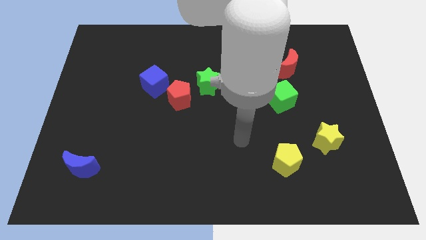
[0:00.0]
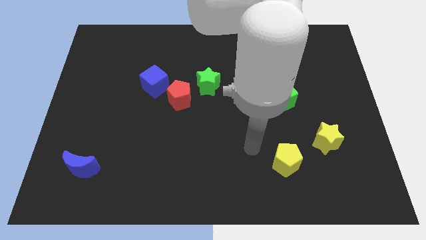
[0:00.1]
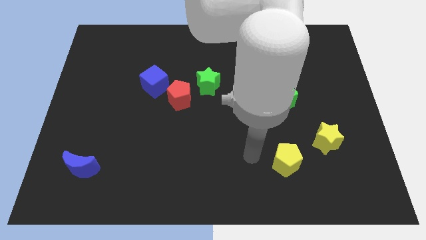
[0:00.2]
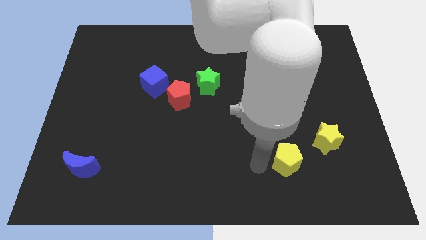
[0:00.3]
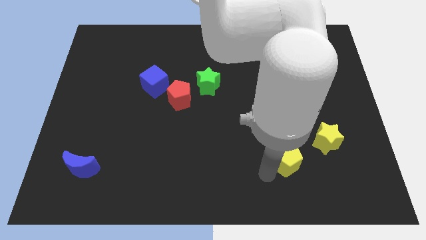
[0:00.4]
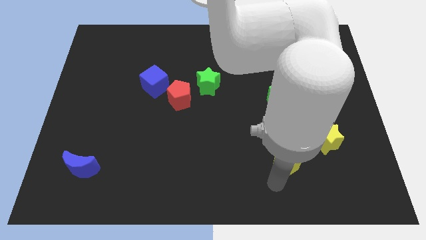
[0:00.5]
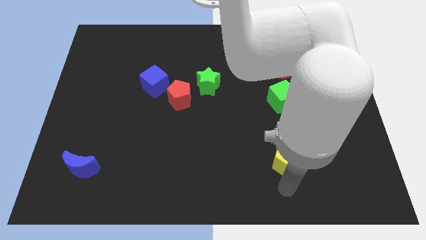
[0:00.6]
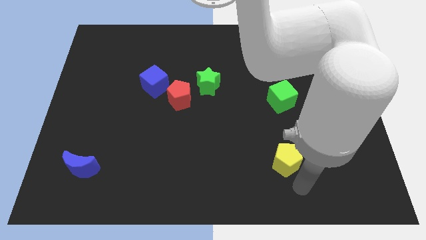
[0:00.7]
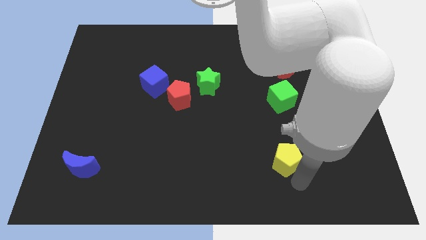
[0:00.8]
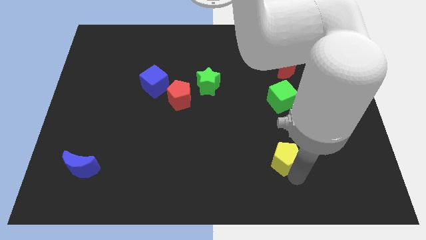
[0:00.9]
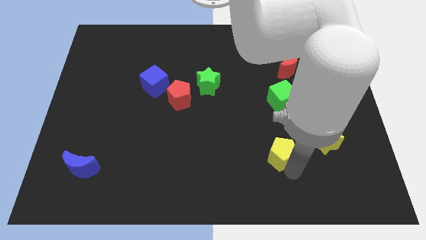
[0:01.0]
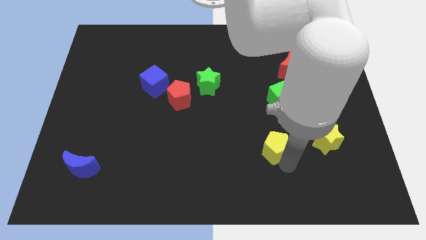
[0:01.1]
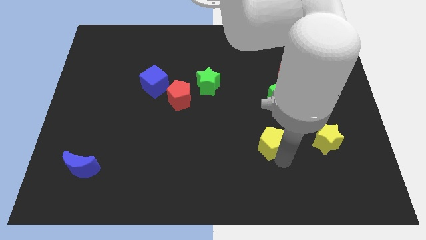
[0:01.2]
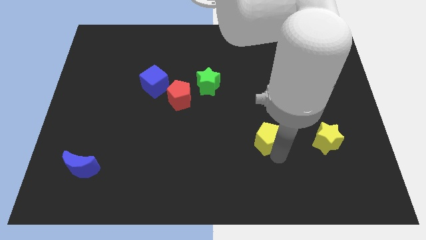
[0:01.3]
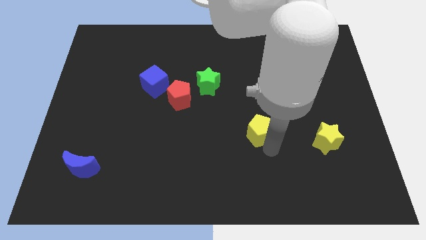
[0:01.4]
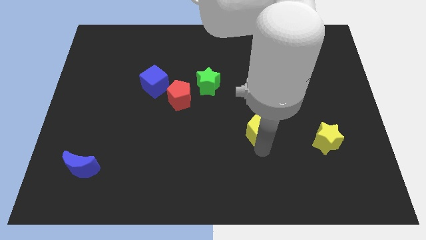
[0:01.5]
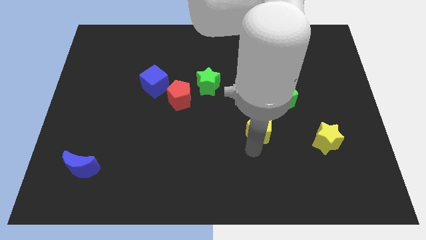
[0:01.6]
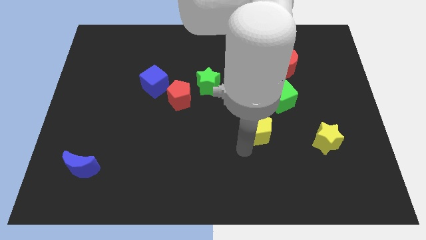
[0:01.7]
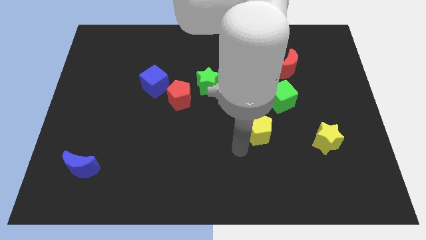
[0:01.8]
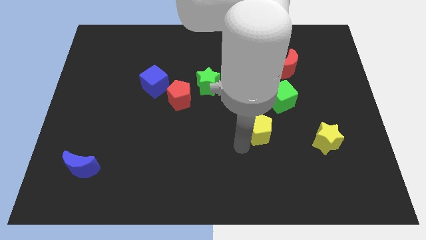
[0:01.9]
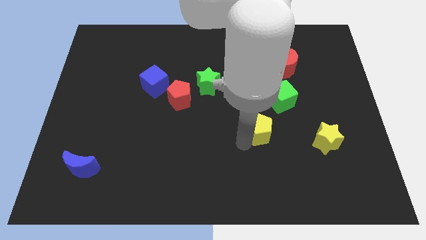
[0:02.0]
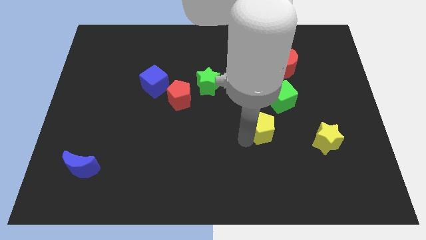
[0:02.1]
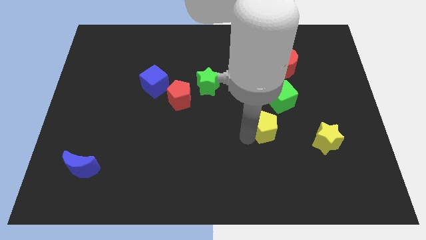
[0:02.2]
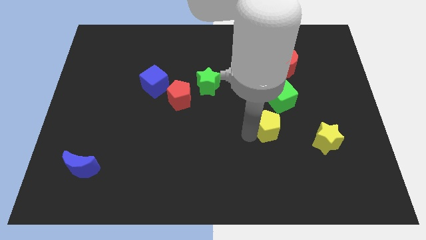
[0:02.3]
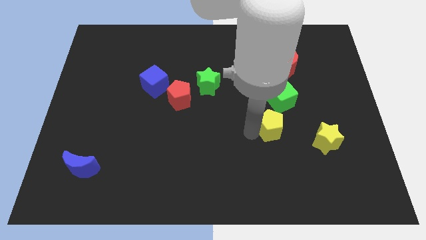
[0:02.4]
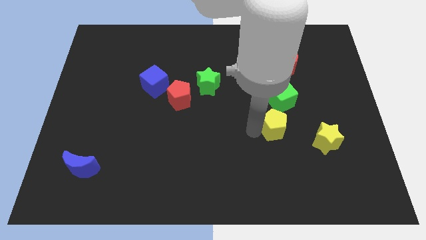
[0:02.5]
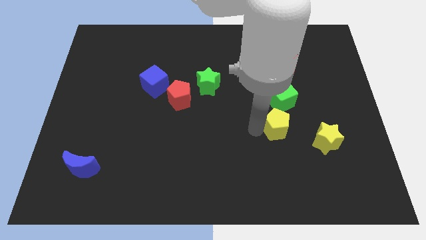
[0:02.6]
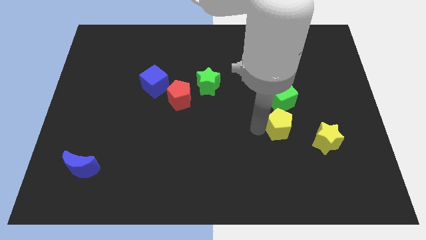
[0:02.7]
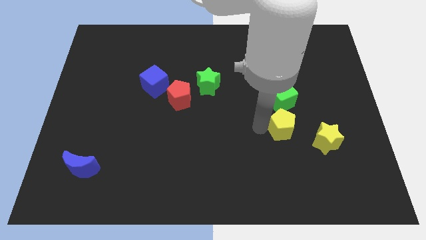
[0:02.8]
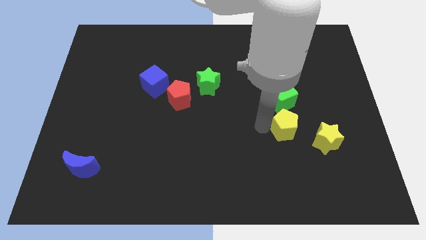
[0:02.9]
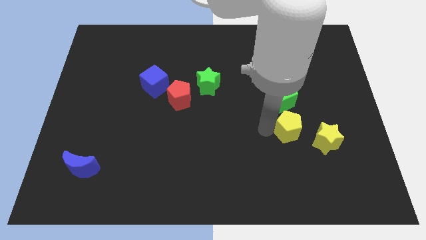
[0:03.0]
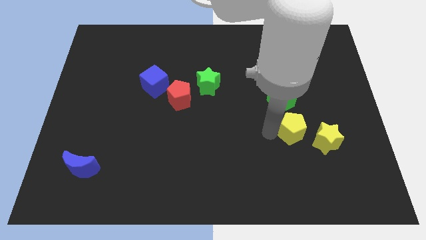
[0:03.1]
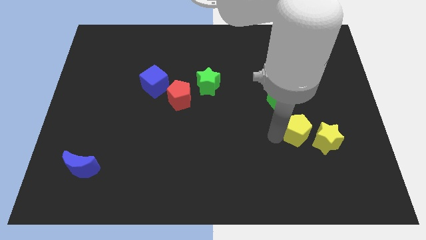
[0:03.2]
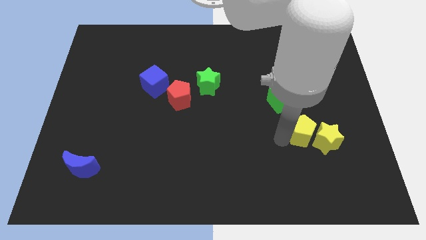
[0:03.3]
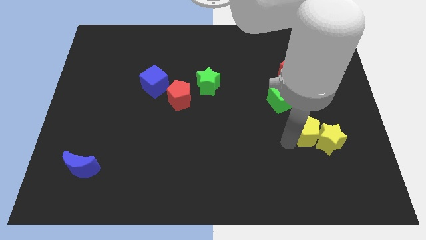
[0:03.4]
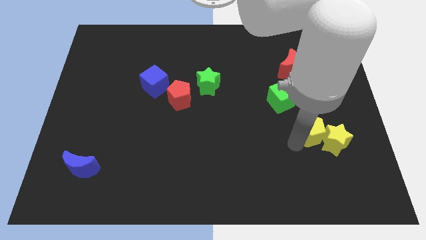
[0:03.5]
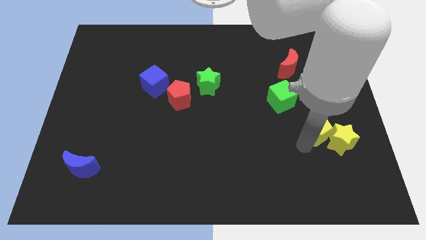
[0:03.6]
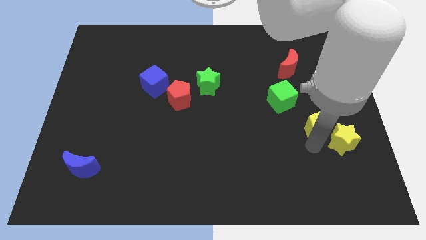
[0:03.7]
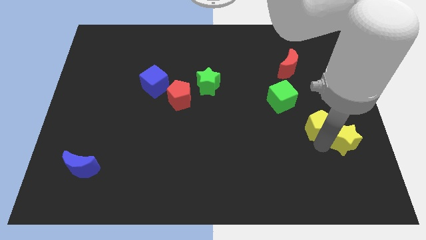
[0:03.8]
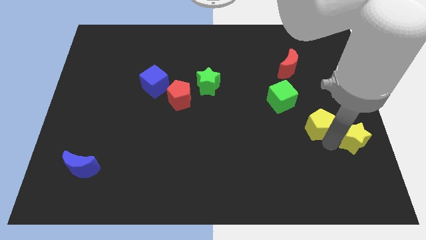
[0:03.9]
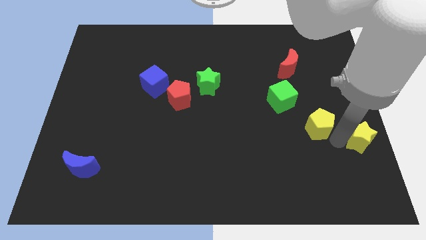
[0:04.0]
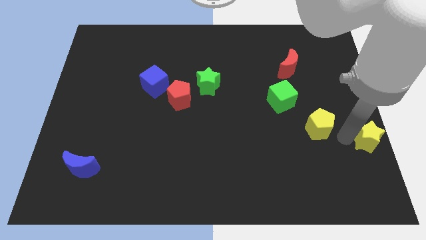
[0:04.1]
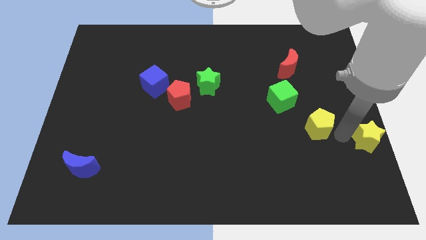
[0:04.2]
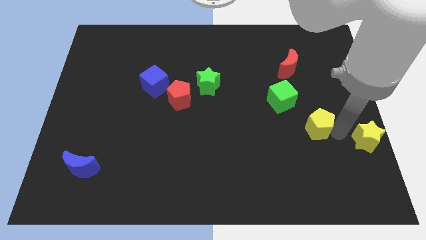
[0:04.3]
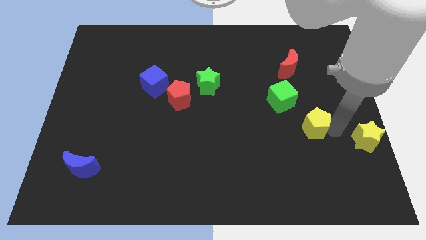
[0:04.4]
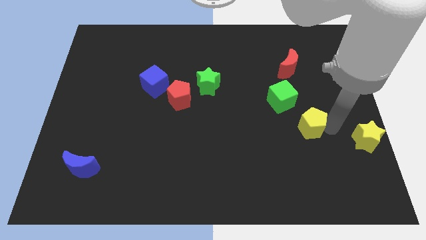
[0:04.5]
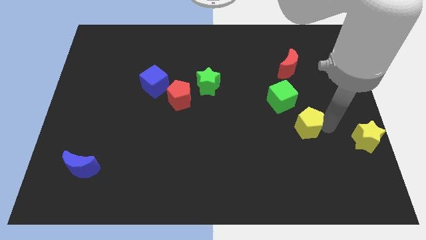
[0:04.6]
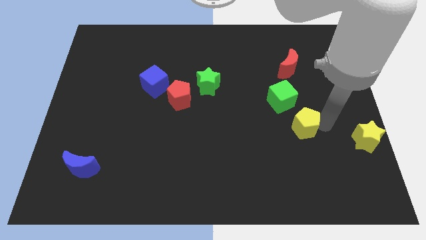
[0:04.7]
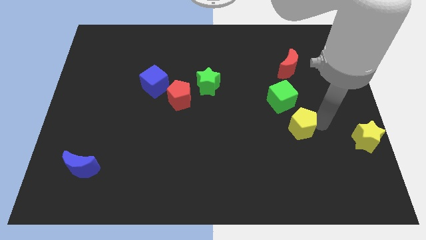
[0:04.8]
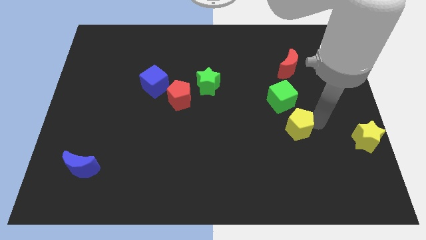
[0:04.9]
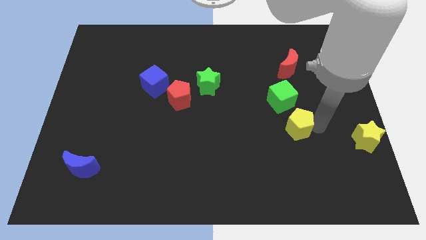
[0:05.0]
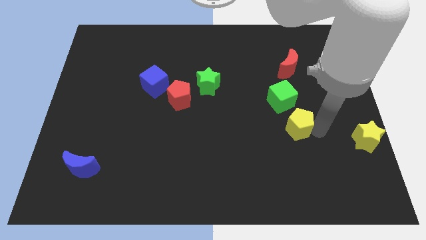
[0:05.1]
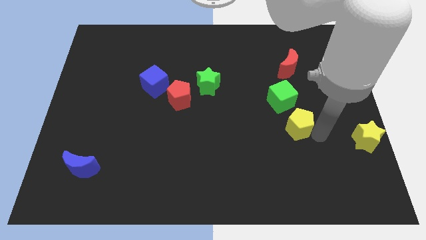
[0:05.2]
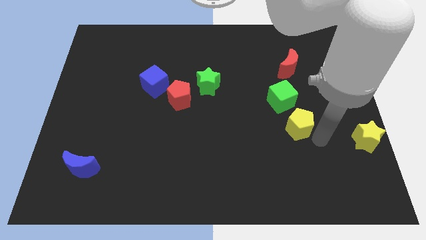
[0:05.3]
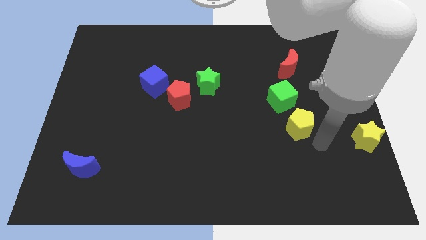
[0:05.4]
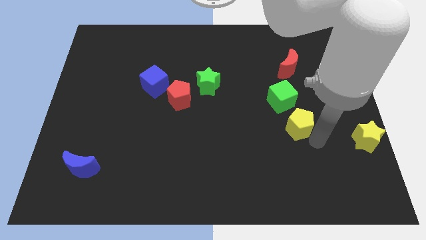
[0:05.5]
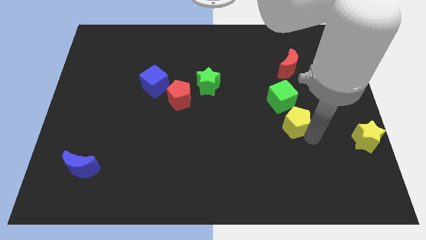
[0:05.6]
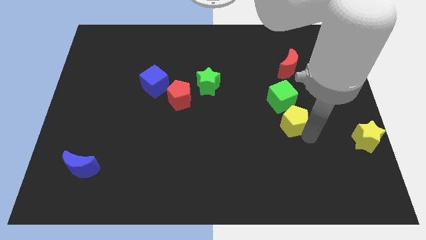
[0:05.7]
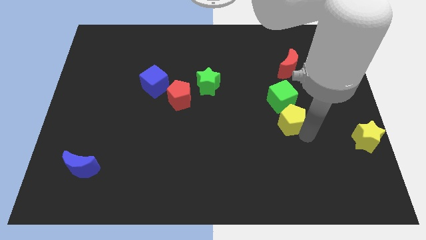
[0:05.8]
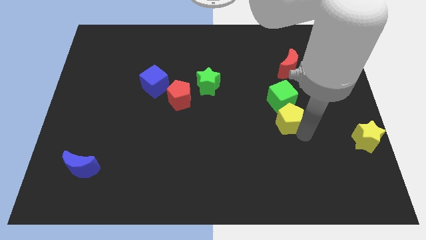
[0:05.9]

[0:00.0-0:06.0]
put the yellow pentagon to the green cube

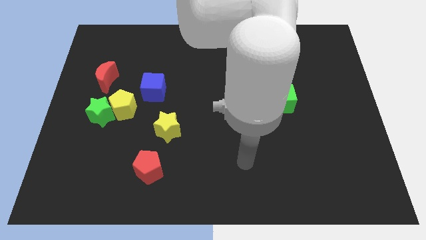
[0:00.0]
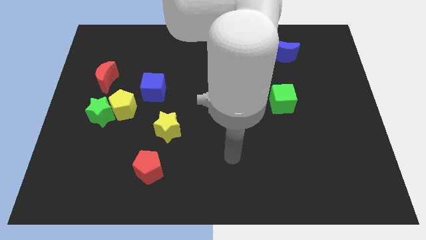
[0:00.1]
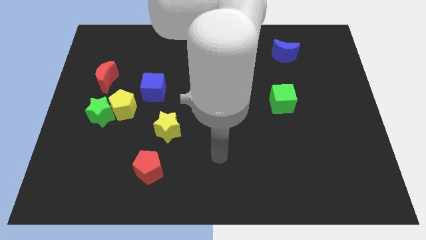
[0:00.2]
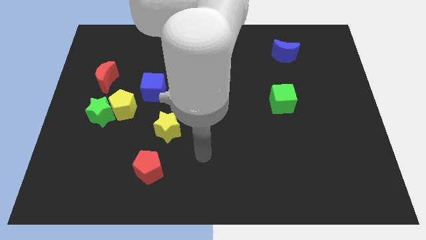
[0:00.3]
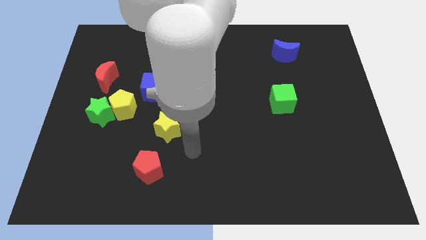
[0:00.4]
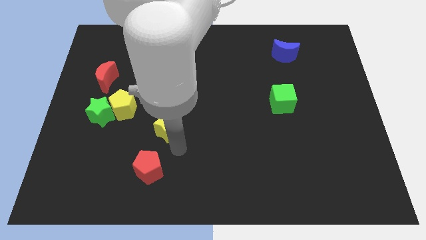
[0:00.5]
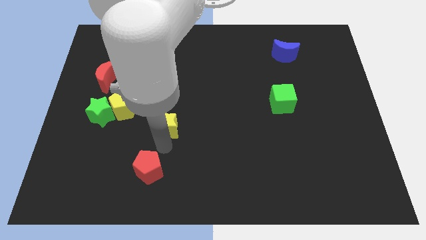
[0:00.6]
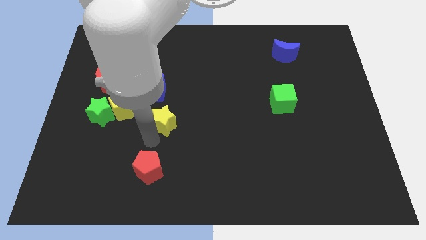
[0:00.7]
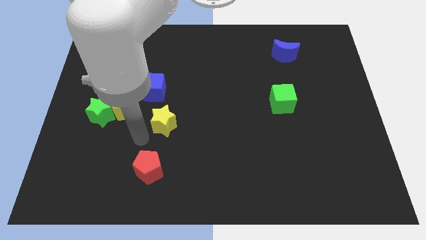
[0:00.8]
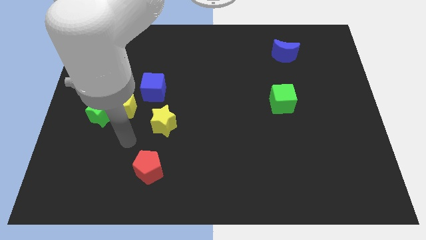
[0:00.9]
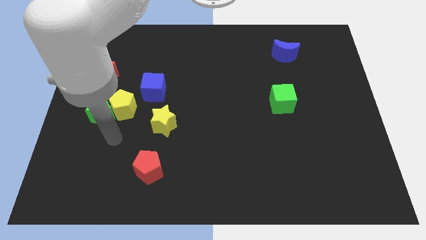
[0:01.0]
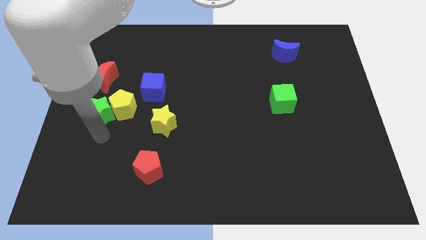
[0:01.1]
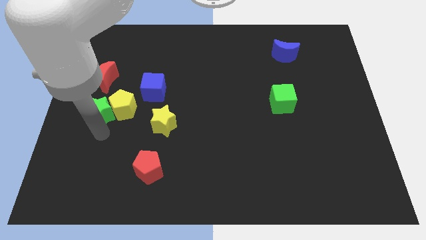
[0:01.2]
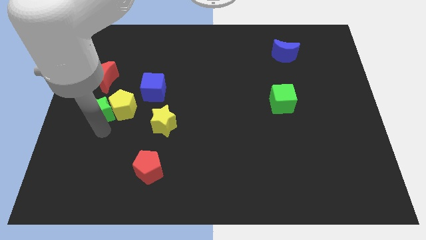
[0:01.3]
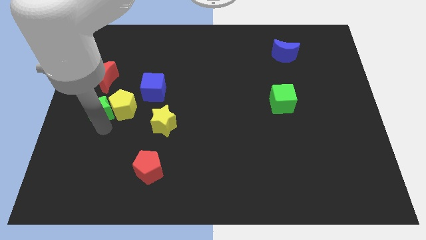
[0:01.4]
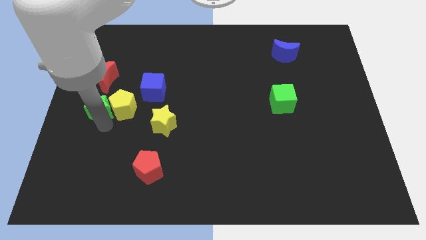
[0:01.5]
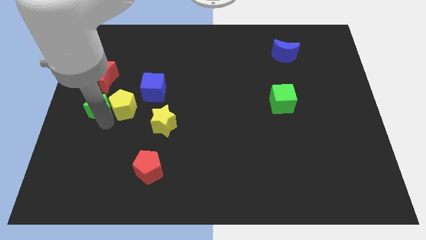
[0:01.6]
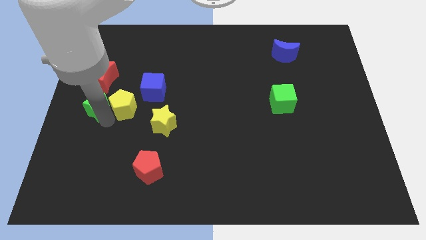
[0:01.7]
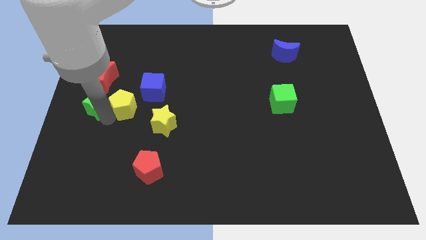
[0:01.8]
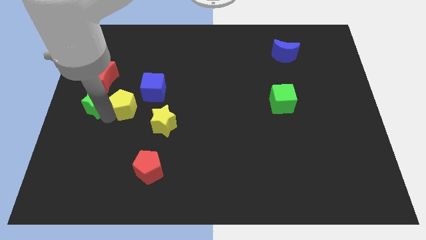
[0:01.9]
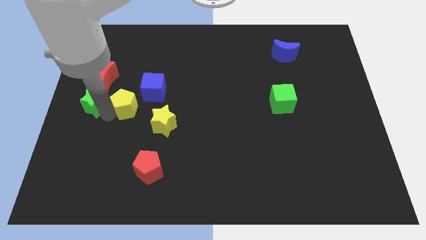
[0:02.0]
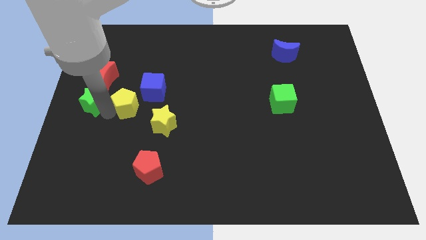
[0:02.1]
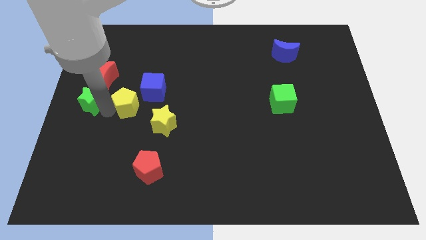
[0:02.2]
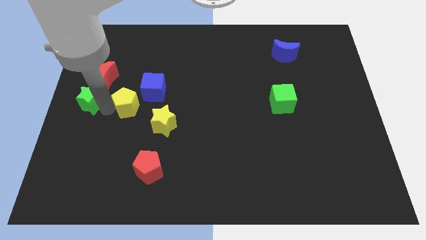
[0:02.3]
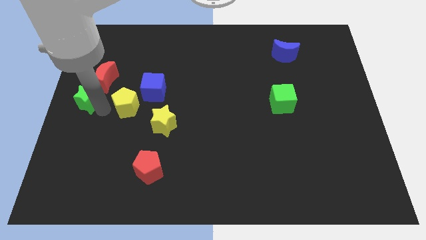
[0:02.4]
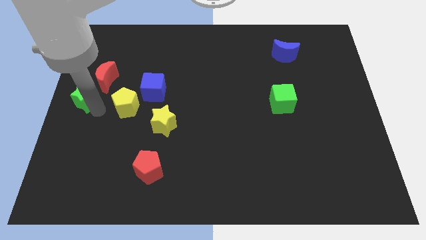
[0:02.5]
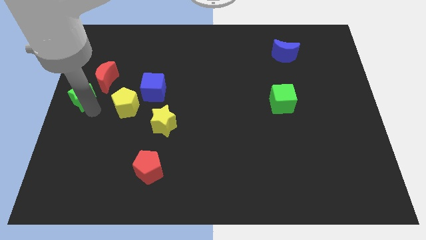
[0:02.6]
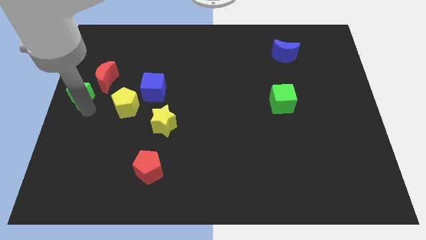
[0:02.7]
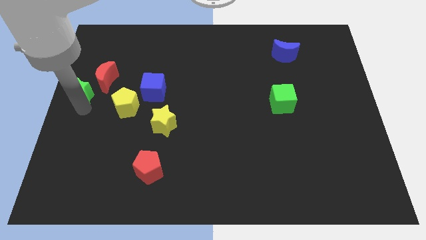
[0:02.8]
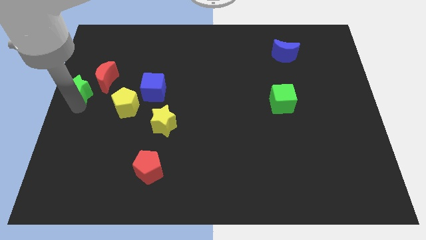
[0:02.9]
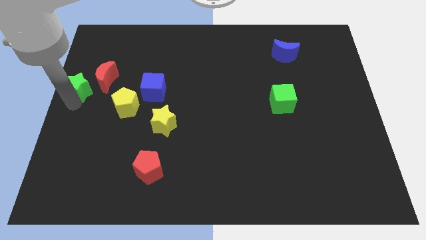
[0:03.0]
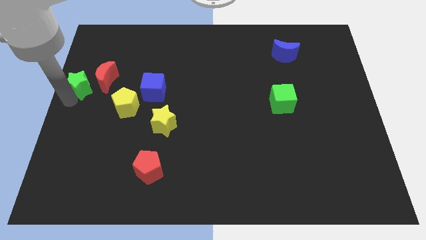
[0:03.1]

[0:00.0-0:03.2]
slide the green star to the red moon
